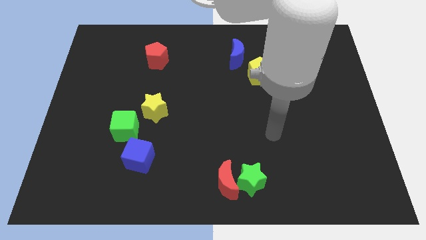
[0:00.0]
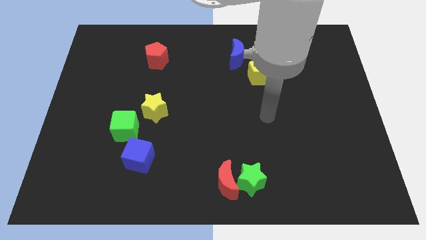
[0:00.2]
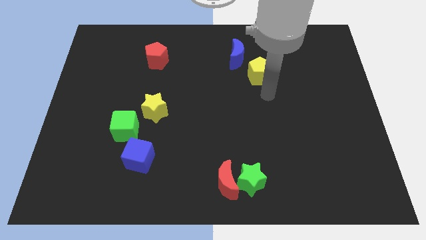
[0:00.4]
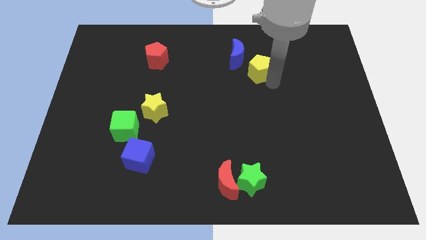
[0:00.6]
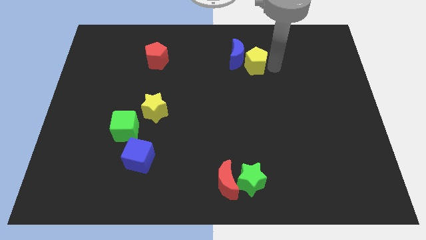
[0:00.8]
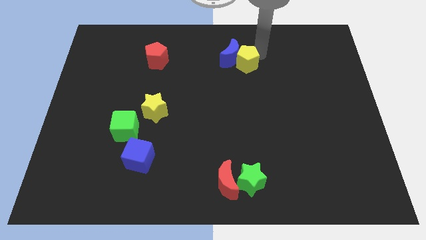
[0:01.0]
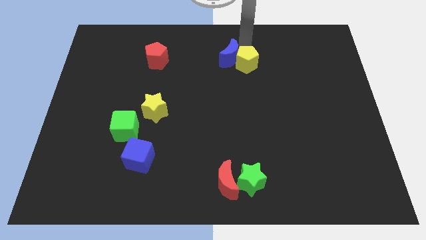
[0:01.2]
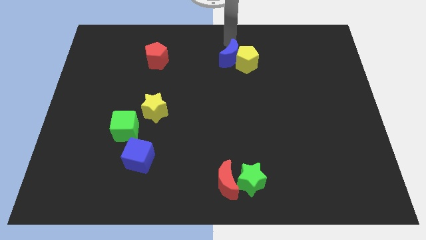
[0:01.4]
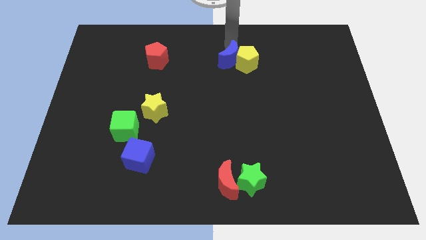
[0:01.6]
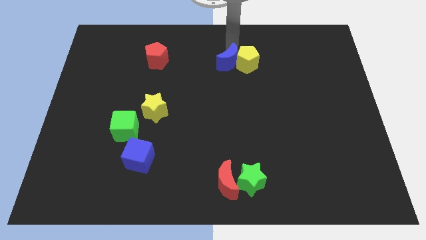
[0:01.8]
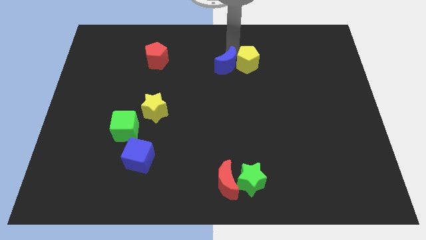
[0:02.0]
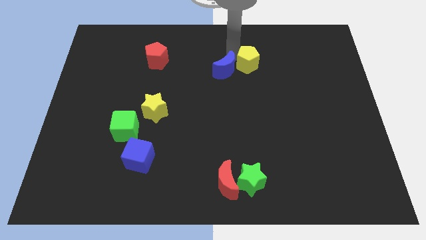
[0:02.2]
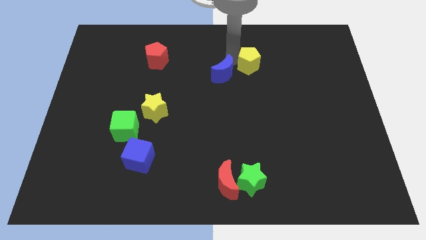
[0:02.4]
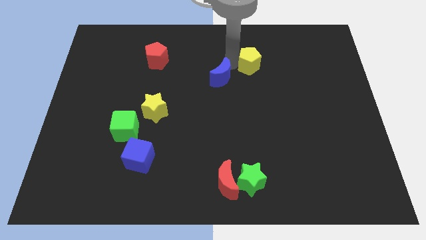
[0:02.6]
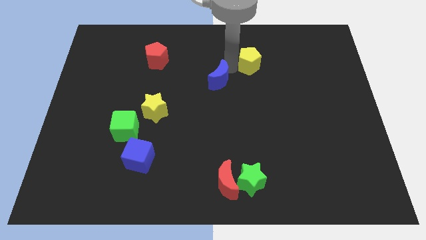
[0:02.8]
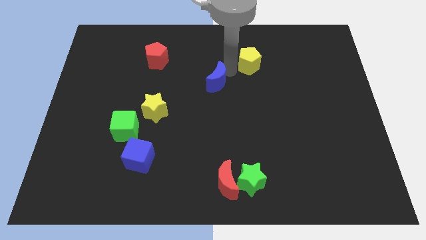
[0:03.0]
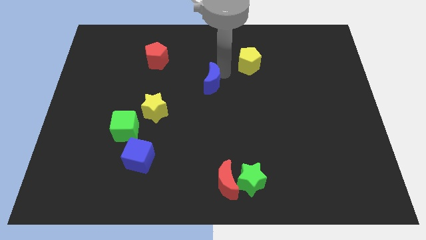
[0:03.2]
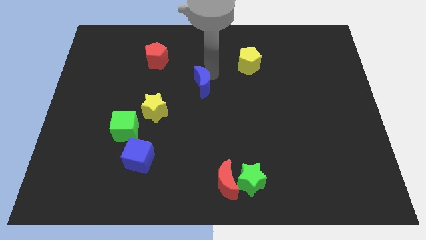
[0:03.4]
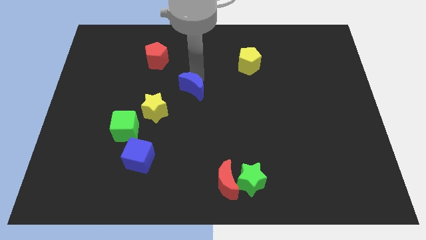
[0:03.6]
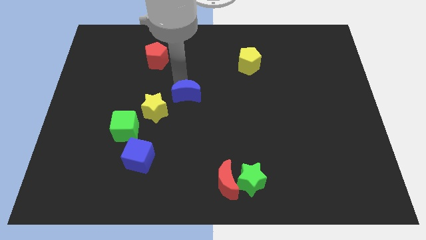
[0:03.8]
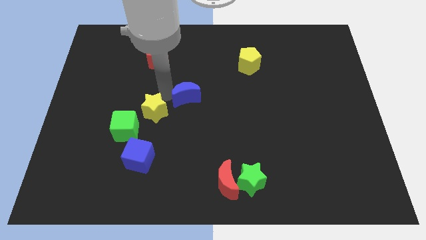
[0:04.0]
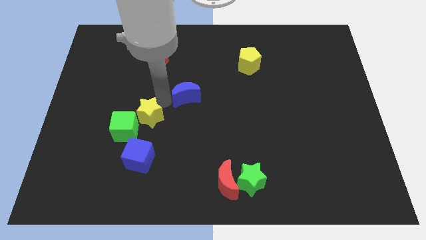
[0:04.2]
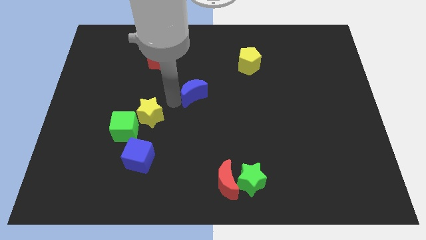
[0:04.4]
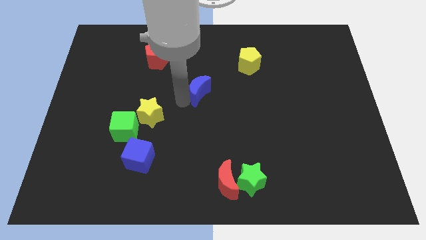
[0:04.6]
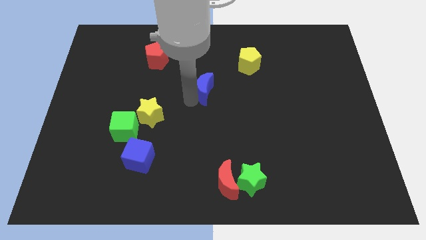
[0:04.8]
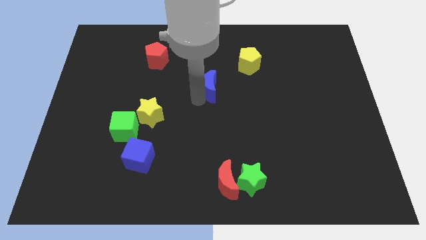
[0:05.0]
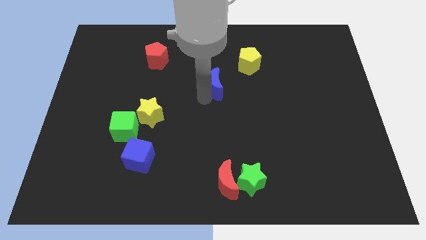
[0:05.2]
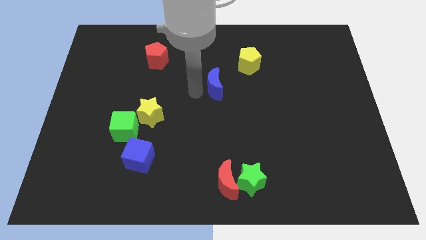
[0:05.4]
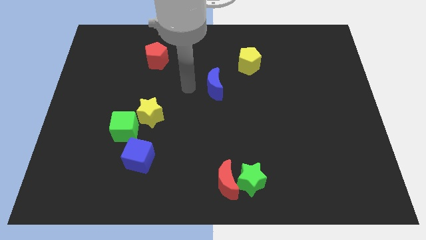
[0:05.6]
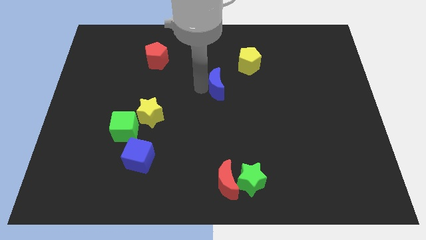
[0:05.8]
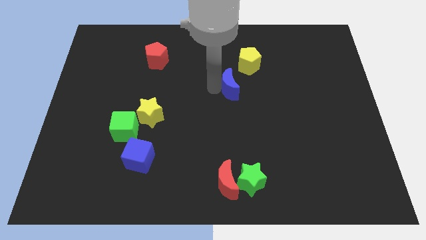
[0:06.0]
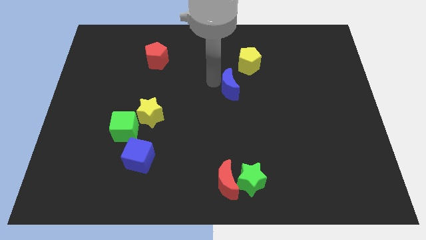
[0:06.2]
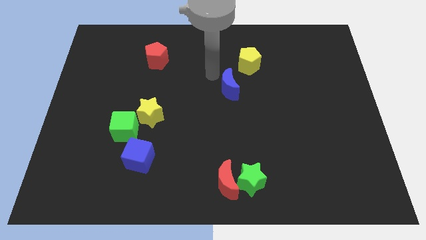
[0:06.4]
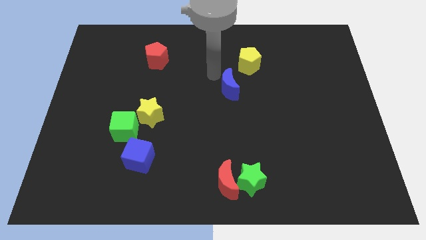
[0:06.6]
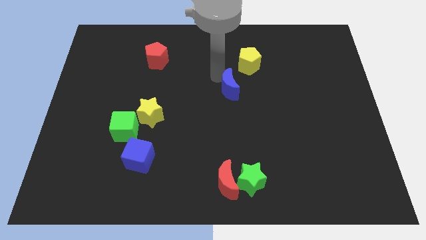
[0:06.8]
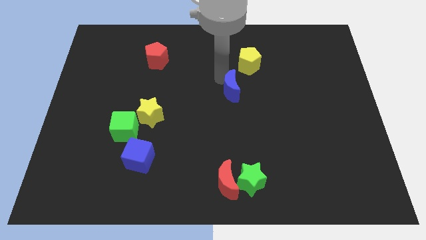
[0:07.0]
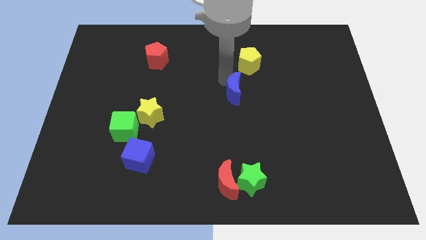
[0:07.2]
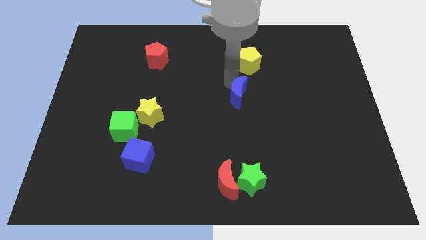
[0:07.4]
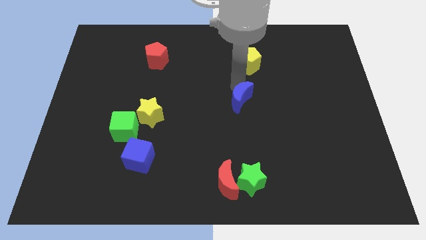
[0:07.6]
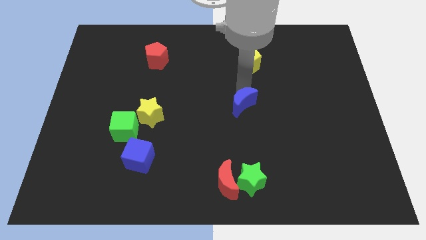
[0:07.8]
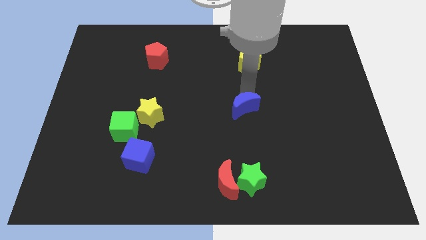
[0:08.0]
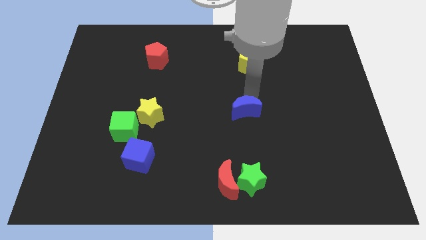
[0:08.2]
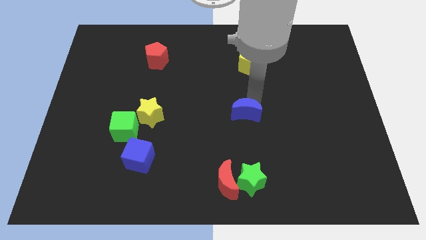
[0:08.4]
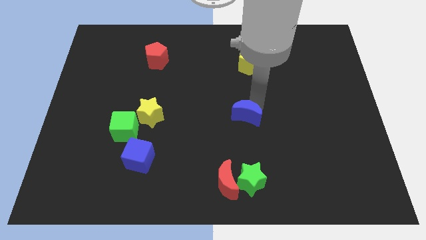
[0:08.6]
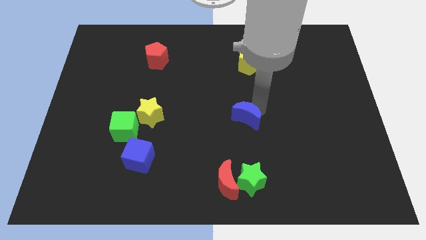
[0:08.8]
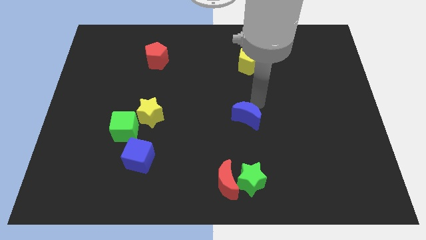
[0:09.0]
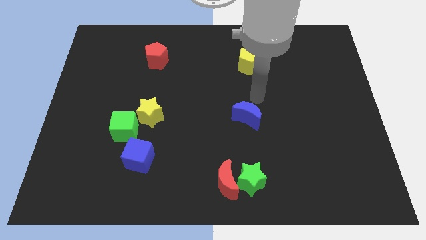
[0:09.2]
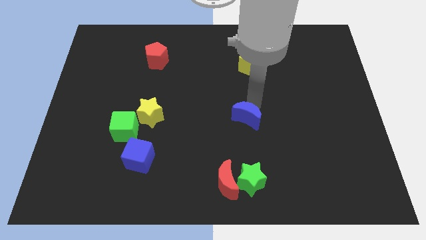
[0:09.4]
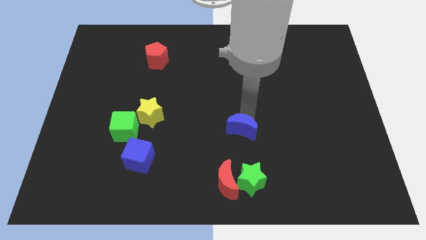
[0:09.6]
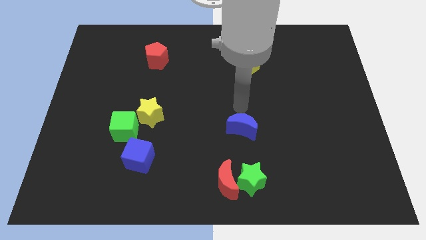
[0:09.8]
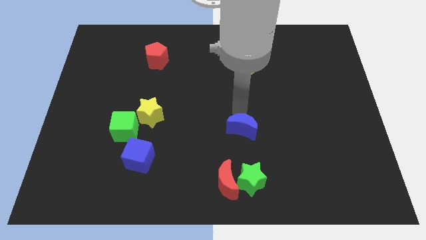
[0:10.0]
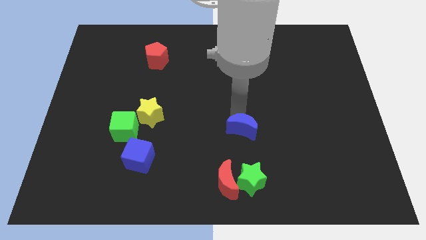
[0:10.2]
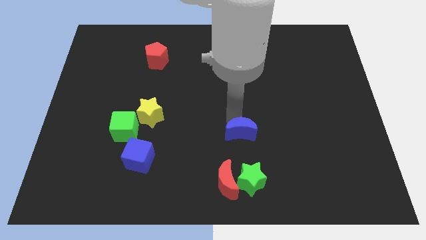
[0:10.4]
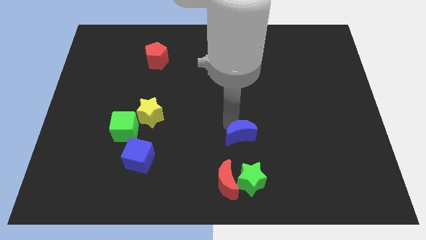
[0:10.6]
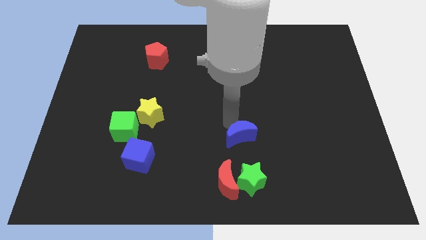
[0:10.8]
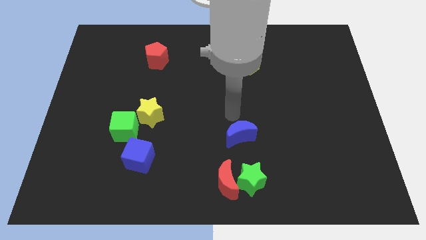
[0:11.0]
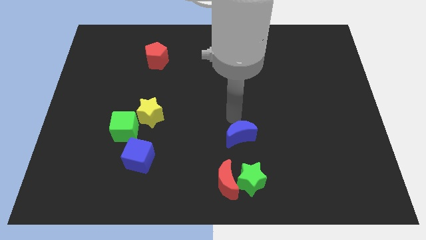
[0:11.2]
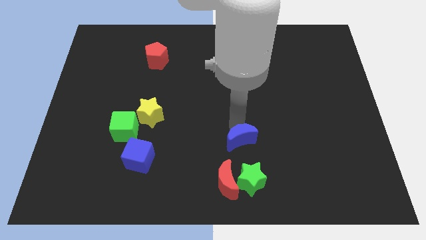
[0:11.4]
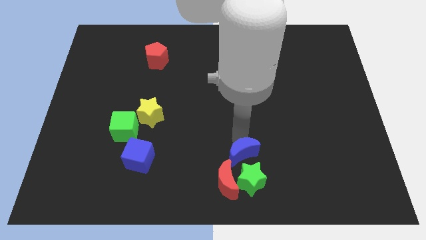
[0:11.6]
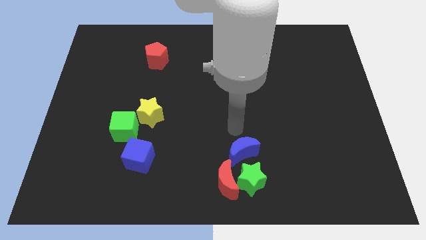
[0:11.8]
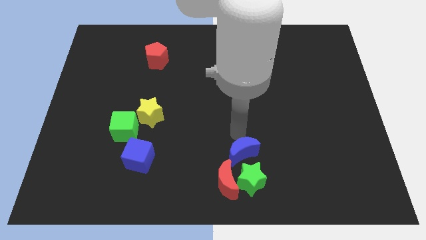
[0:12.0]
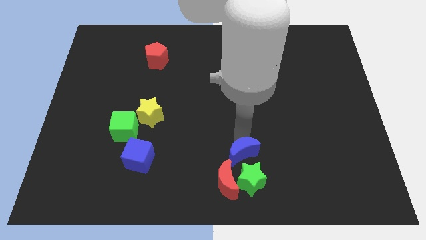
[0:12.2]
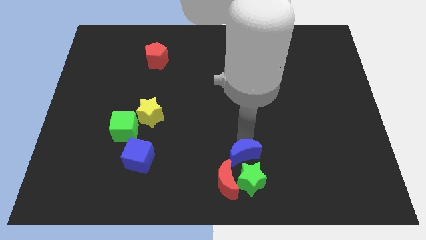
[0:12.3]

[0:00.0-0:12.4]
put the blue moon close to the green star

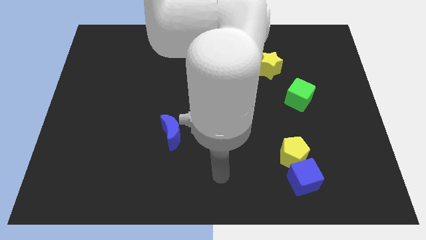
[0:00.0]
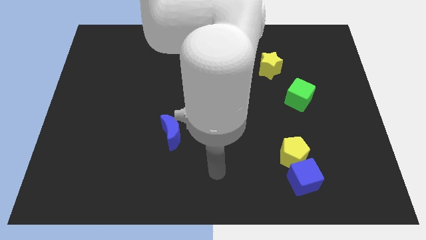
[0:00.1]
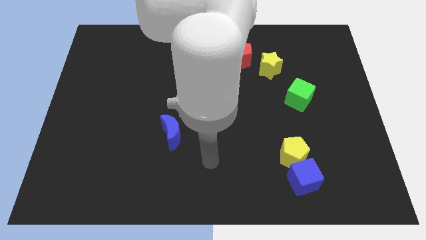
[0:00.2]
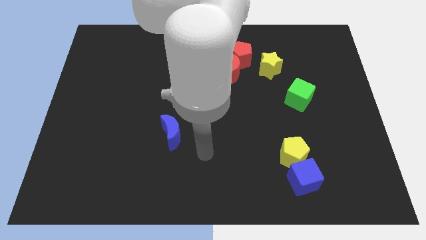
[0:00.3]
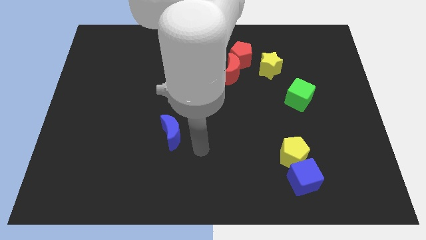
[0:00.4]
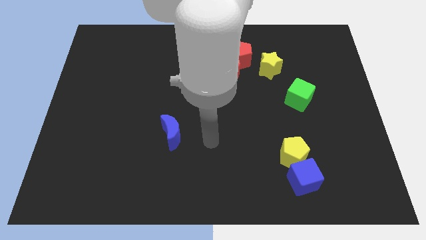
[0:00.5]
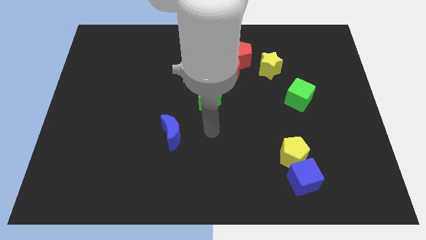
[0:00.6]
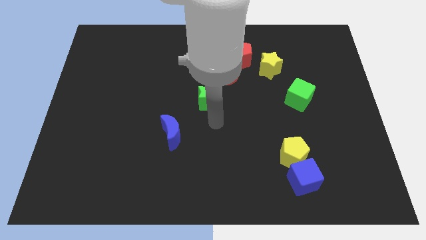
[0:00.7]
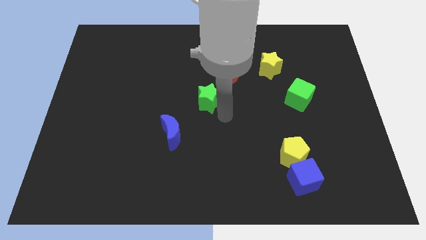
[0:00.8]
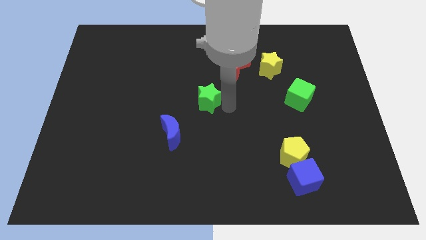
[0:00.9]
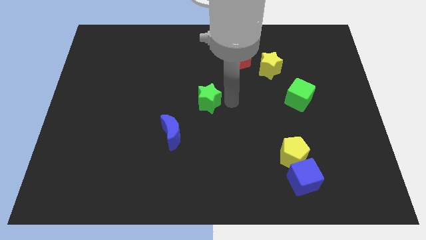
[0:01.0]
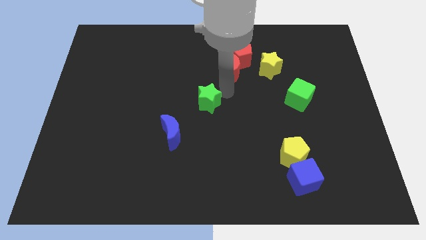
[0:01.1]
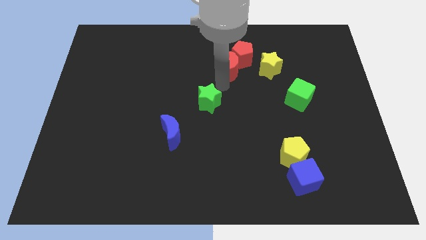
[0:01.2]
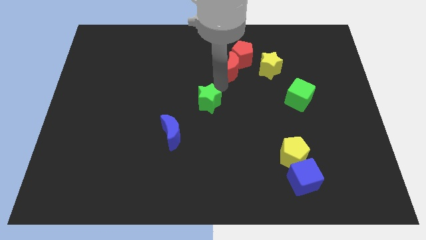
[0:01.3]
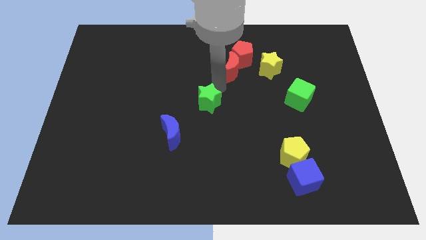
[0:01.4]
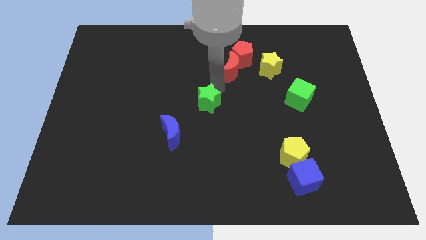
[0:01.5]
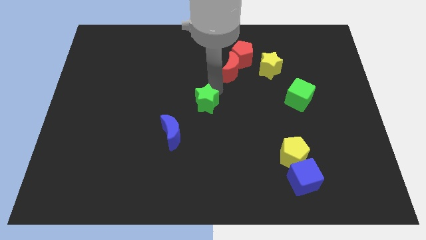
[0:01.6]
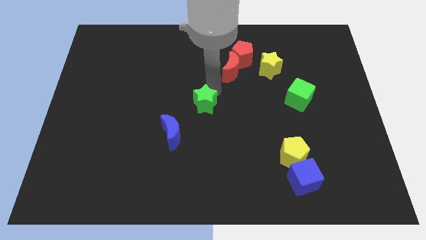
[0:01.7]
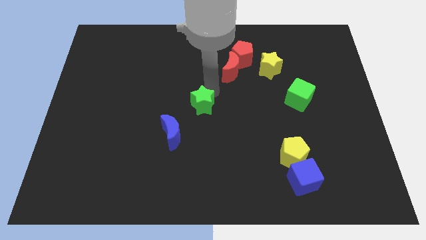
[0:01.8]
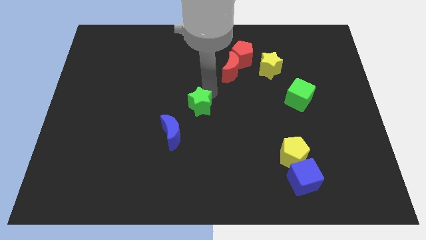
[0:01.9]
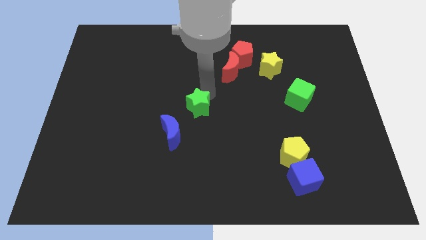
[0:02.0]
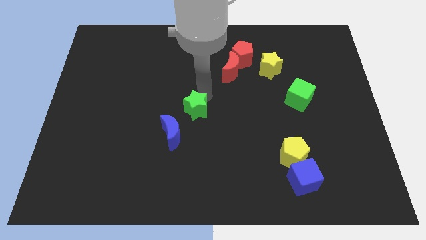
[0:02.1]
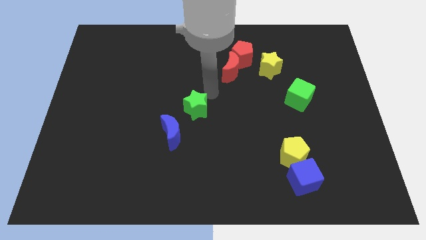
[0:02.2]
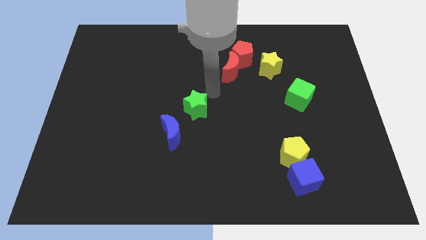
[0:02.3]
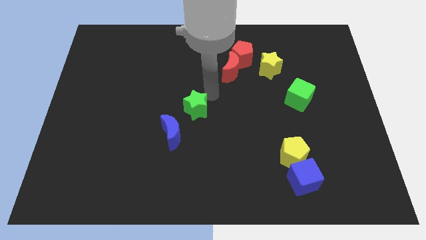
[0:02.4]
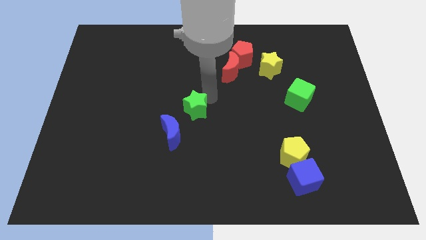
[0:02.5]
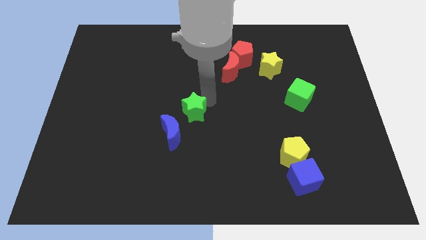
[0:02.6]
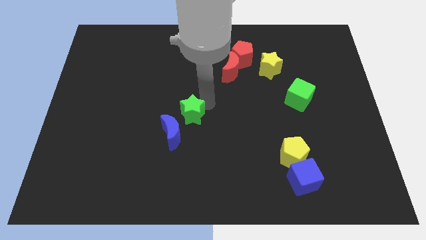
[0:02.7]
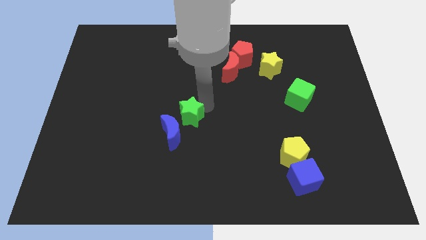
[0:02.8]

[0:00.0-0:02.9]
put the green star close to the blue moon
